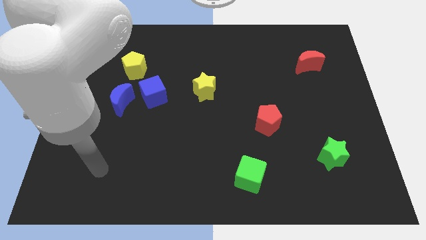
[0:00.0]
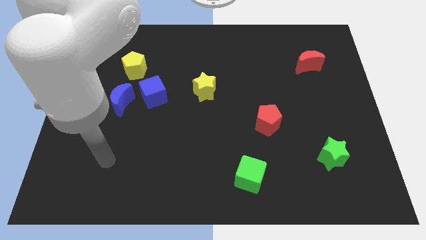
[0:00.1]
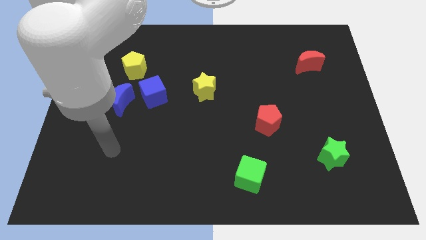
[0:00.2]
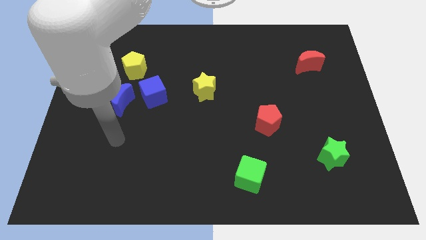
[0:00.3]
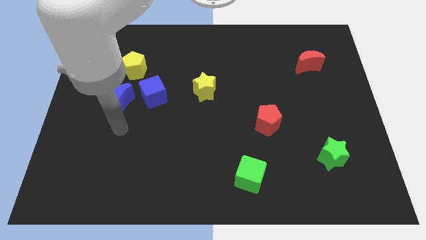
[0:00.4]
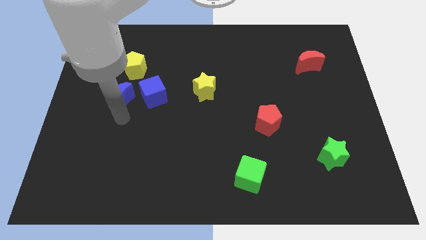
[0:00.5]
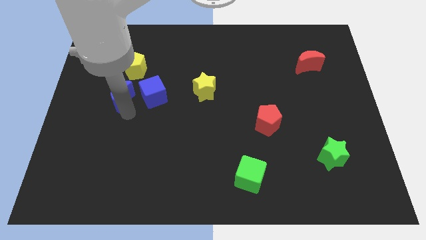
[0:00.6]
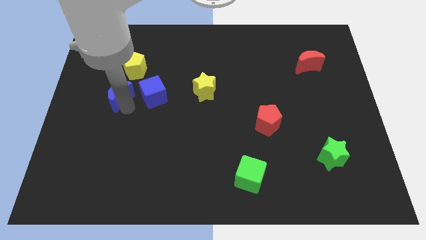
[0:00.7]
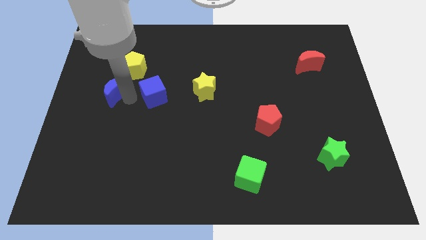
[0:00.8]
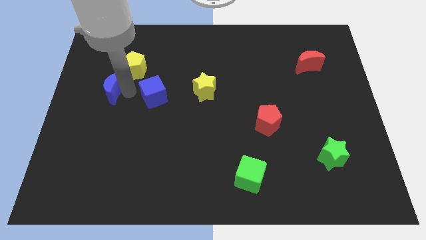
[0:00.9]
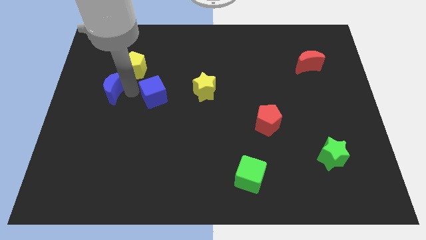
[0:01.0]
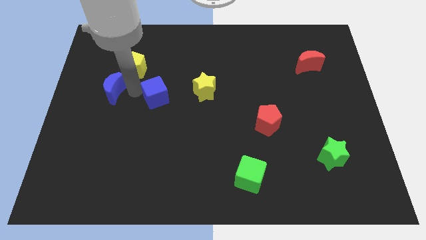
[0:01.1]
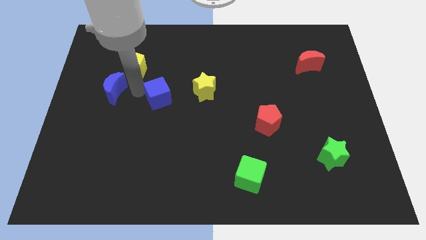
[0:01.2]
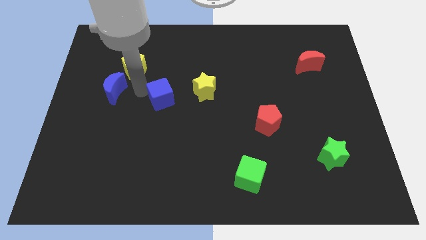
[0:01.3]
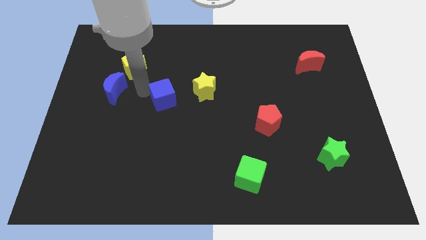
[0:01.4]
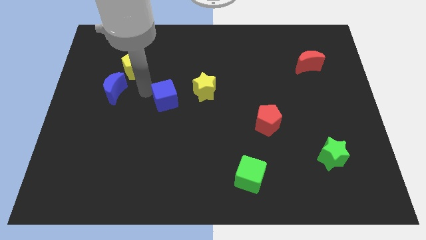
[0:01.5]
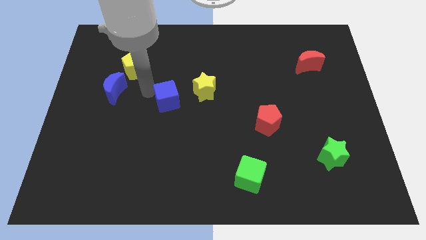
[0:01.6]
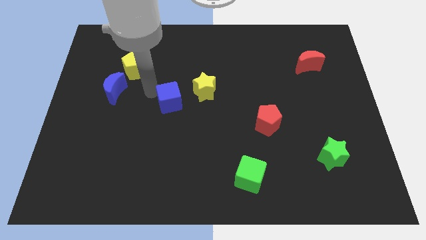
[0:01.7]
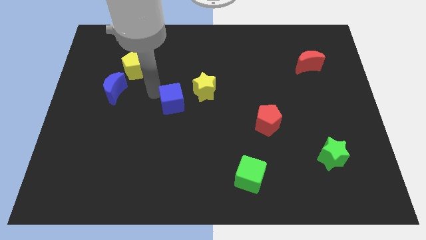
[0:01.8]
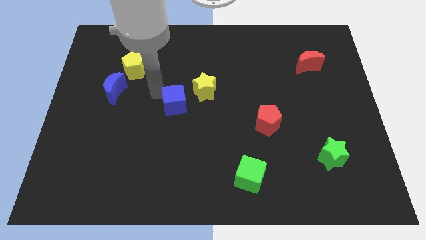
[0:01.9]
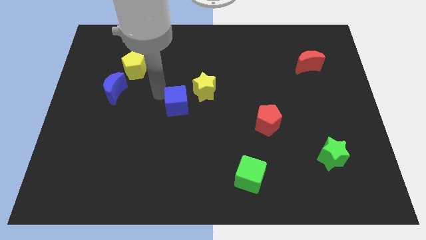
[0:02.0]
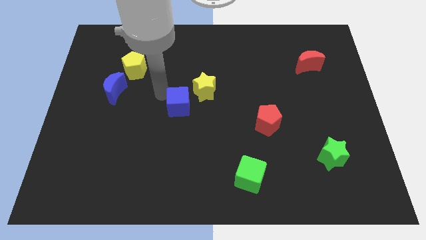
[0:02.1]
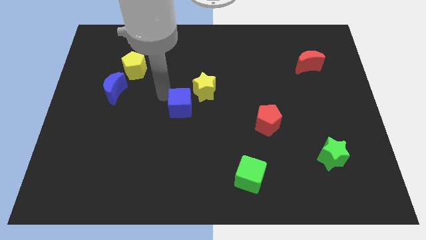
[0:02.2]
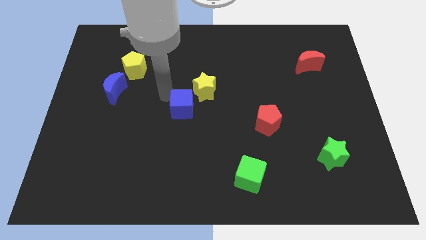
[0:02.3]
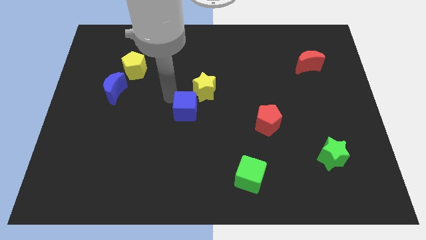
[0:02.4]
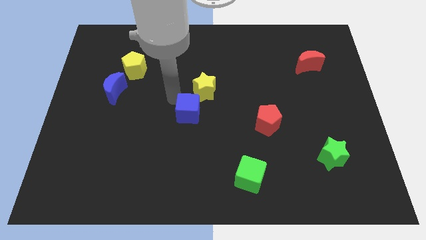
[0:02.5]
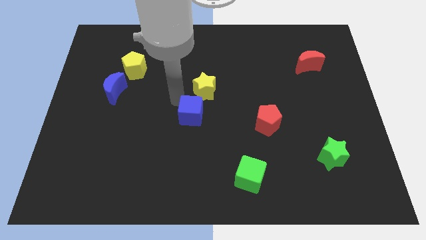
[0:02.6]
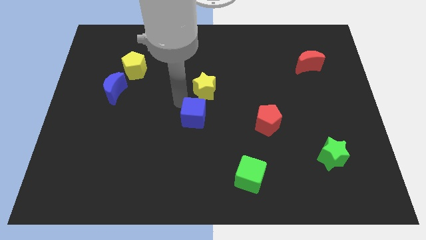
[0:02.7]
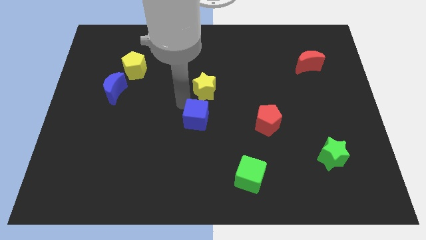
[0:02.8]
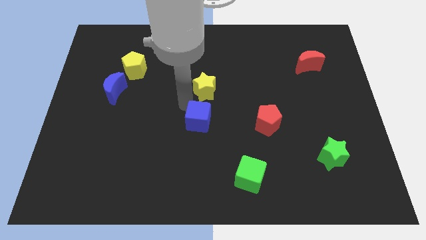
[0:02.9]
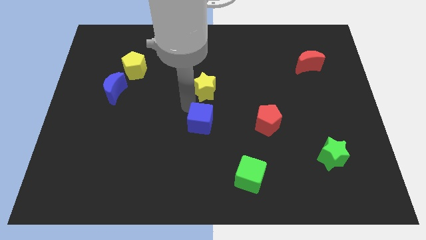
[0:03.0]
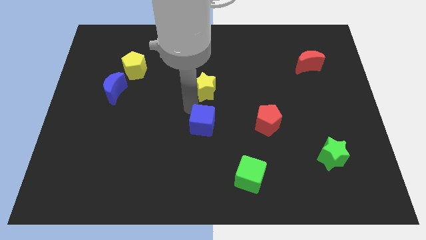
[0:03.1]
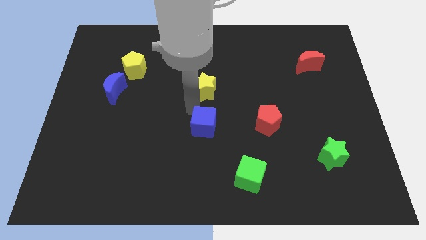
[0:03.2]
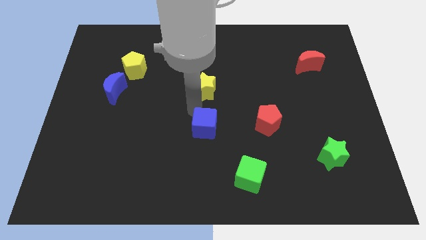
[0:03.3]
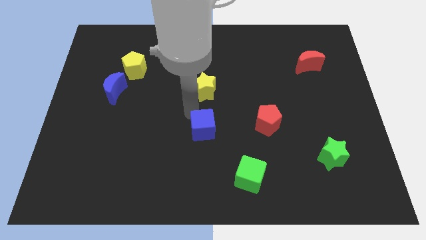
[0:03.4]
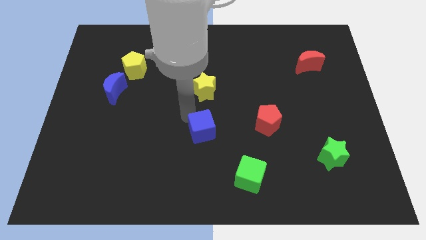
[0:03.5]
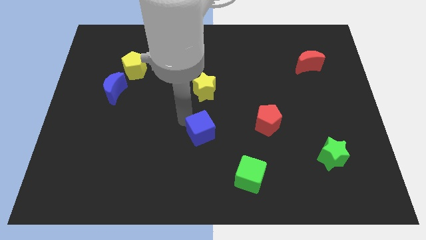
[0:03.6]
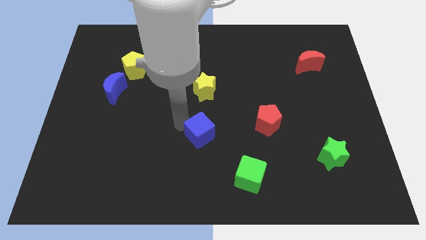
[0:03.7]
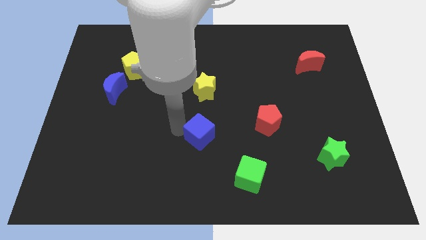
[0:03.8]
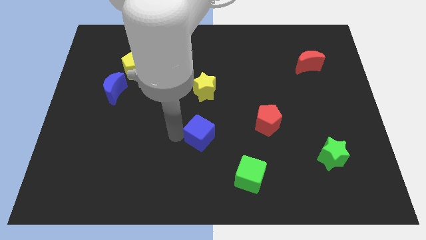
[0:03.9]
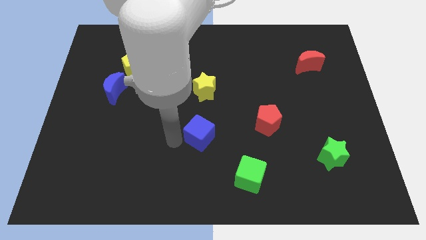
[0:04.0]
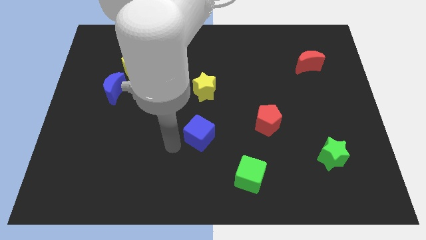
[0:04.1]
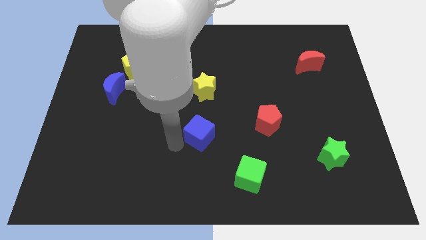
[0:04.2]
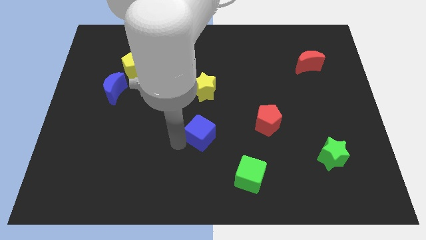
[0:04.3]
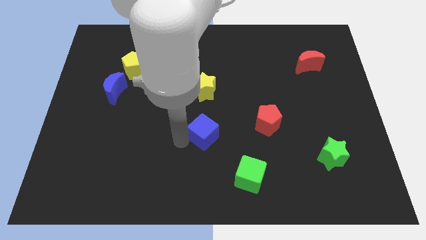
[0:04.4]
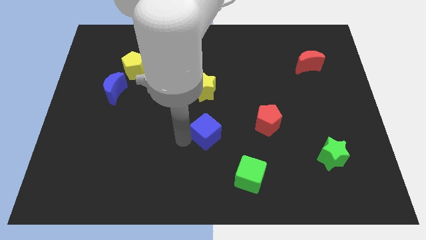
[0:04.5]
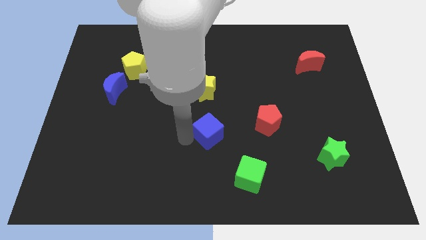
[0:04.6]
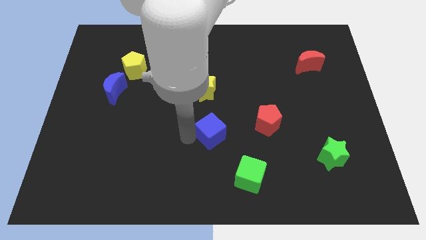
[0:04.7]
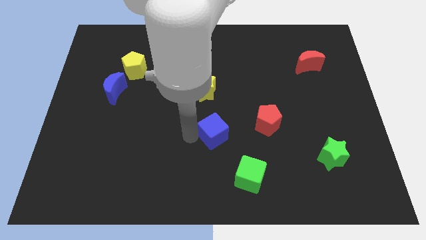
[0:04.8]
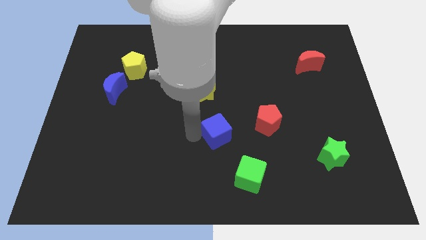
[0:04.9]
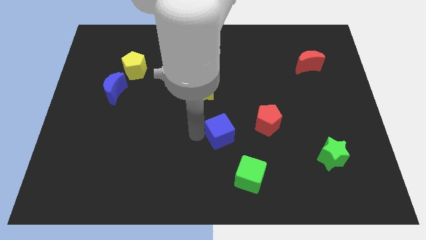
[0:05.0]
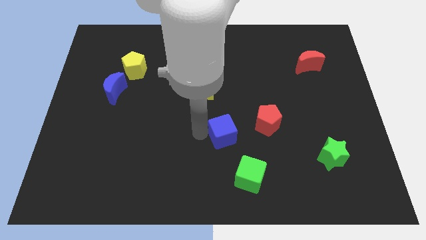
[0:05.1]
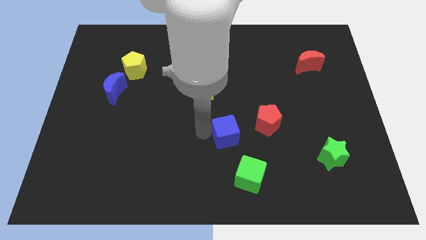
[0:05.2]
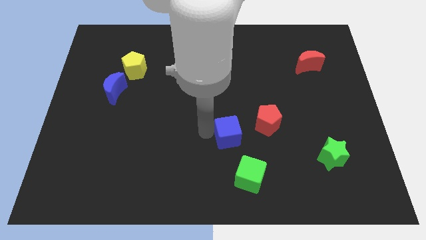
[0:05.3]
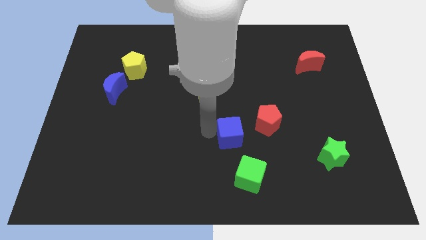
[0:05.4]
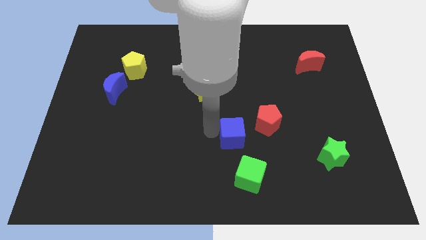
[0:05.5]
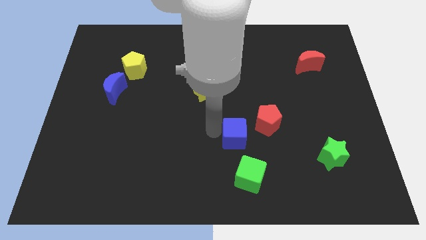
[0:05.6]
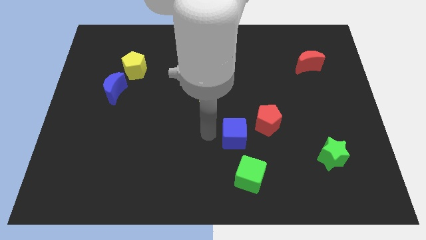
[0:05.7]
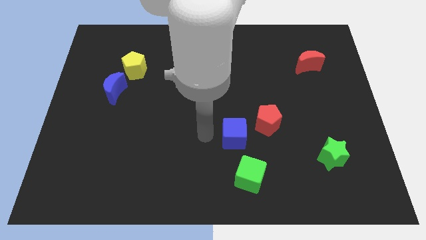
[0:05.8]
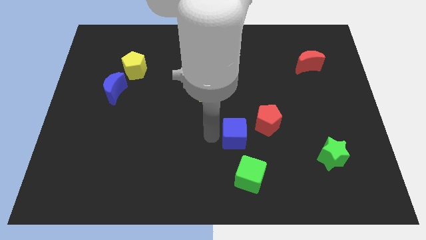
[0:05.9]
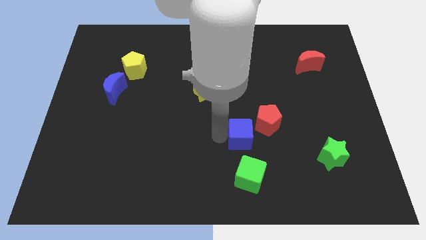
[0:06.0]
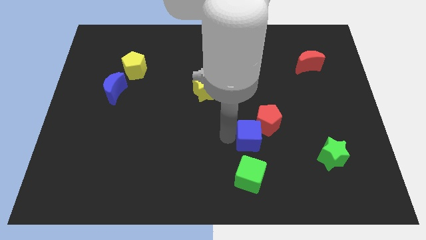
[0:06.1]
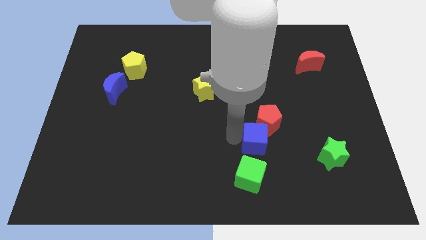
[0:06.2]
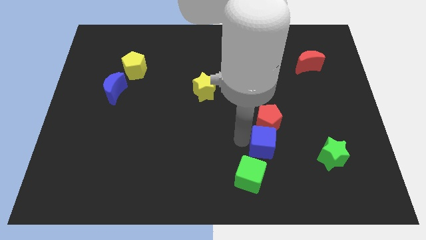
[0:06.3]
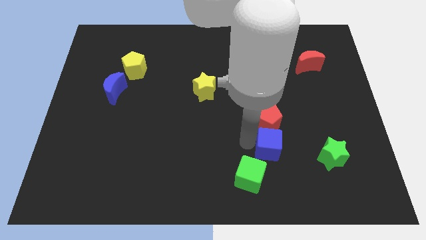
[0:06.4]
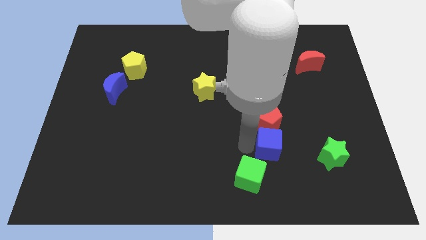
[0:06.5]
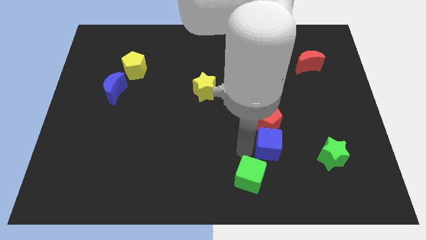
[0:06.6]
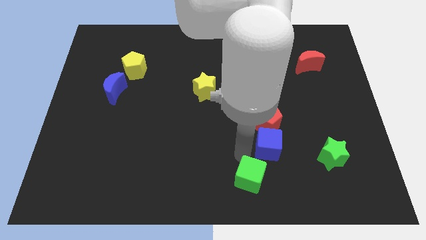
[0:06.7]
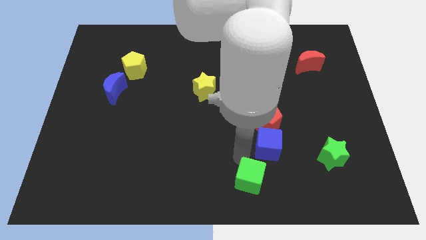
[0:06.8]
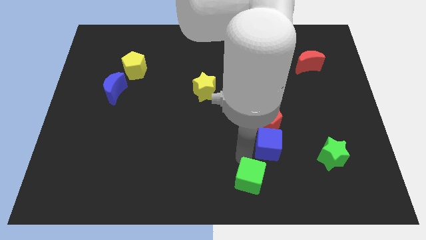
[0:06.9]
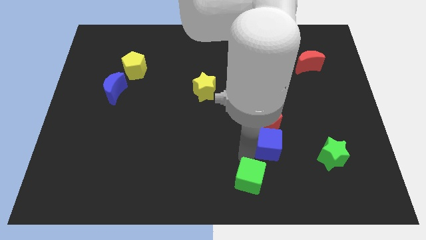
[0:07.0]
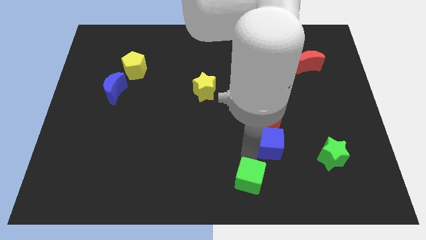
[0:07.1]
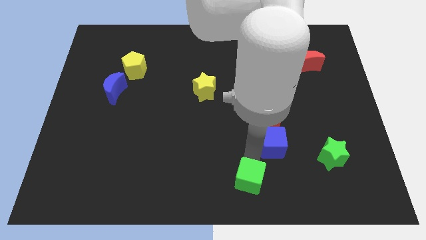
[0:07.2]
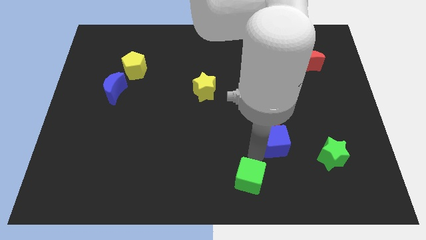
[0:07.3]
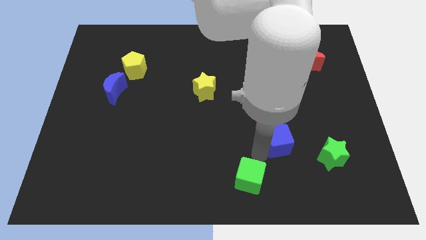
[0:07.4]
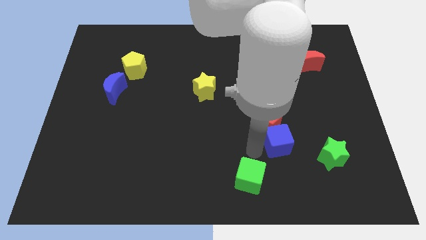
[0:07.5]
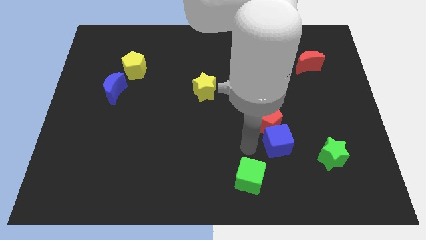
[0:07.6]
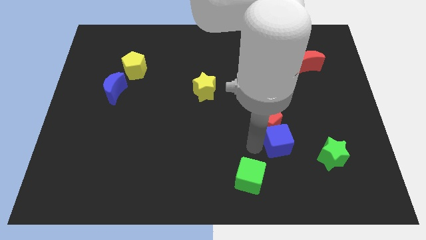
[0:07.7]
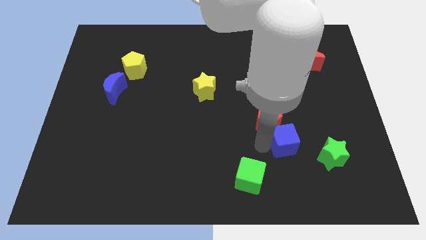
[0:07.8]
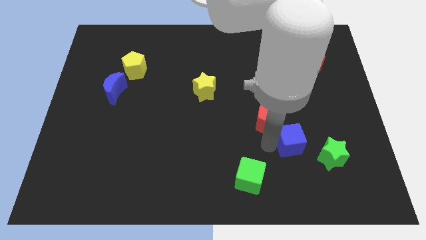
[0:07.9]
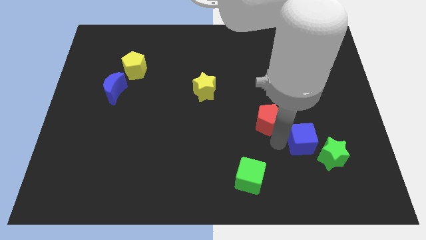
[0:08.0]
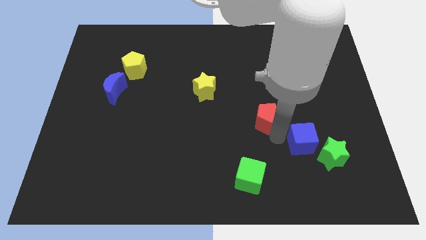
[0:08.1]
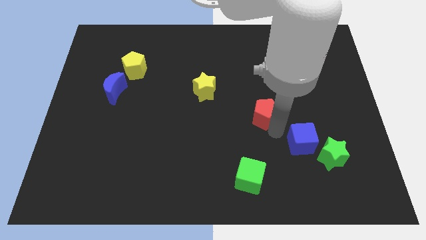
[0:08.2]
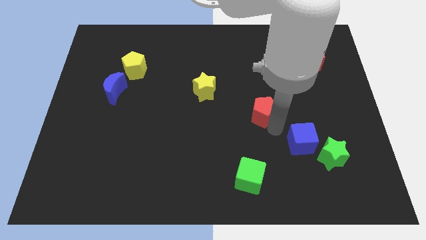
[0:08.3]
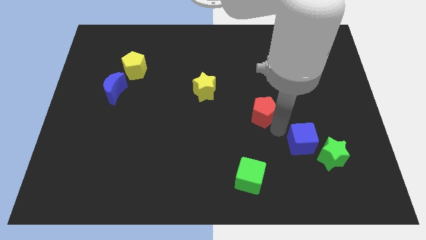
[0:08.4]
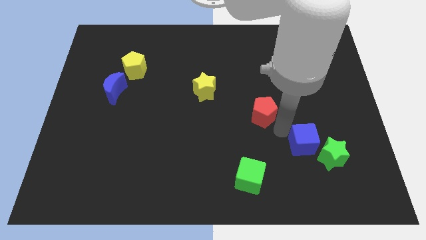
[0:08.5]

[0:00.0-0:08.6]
push the blue cube next to the green star
